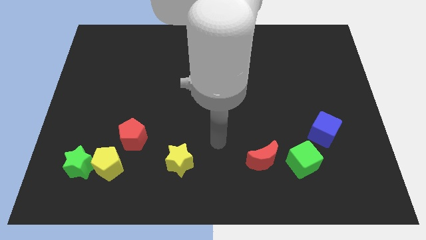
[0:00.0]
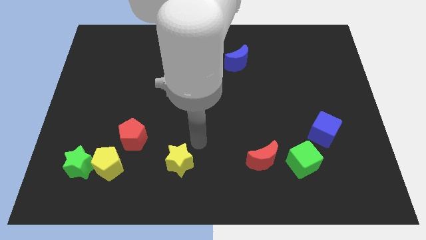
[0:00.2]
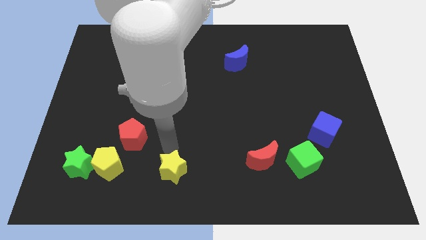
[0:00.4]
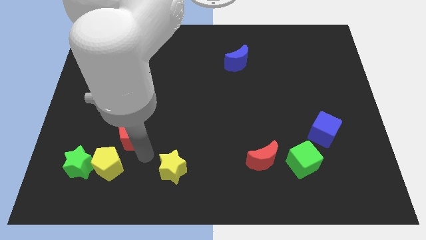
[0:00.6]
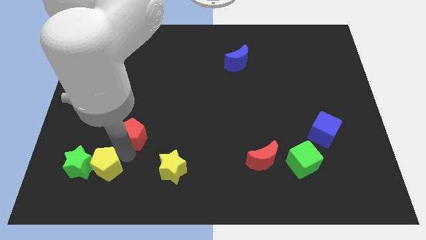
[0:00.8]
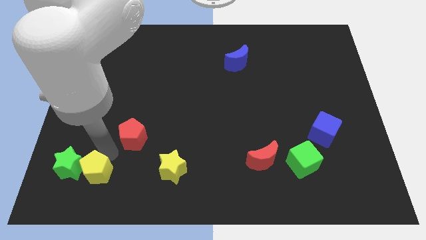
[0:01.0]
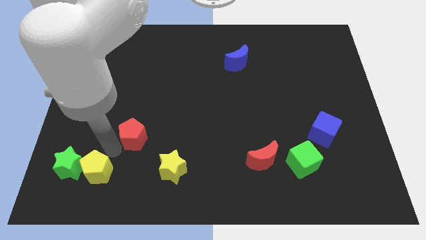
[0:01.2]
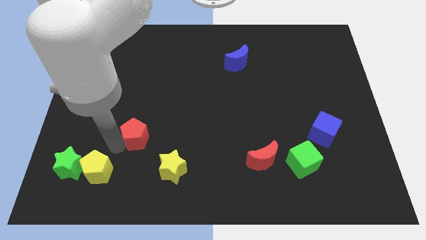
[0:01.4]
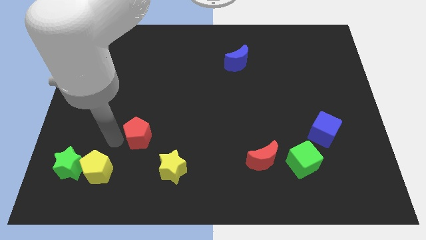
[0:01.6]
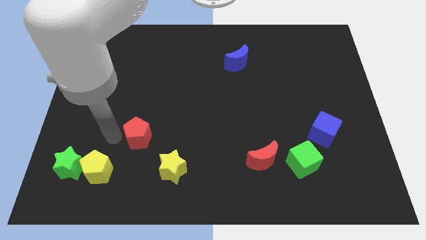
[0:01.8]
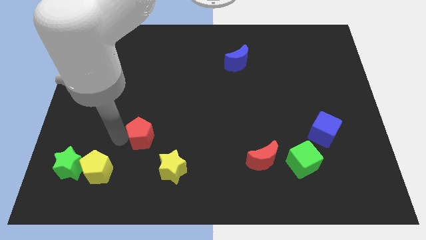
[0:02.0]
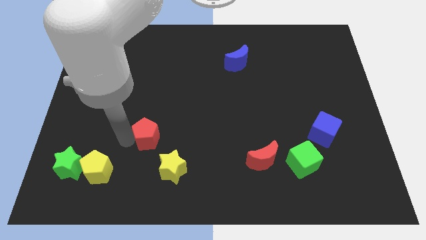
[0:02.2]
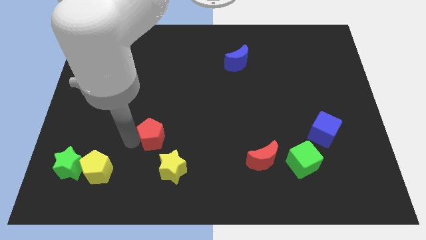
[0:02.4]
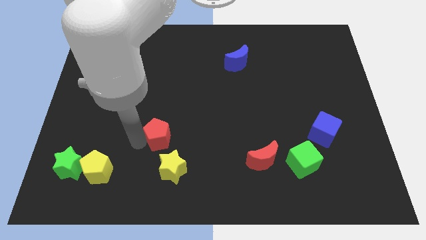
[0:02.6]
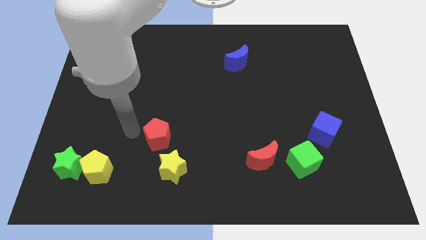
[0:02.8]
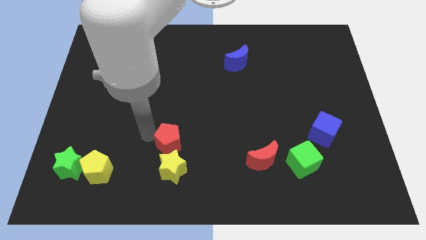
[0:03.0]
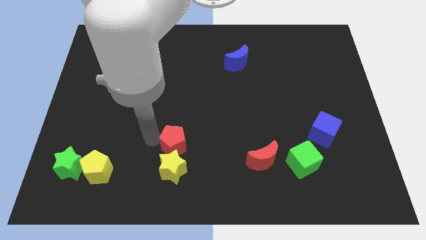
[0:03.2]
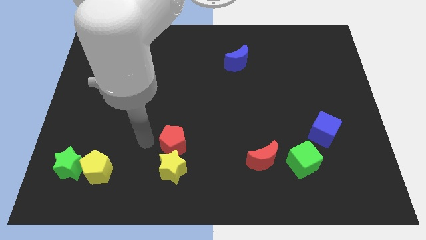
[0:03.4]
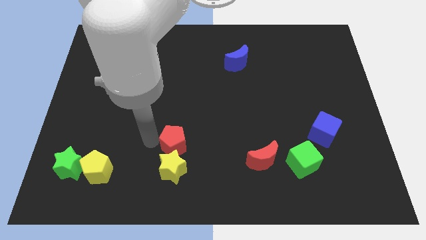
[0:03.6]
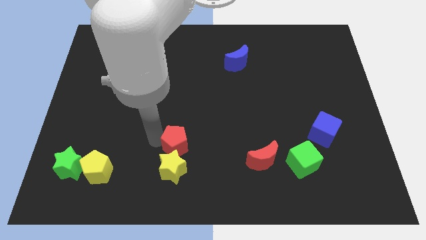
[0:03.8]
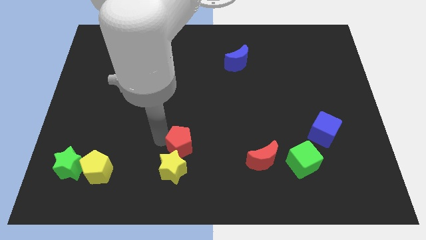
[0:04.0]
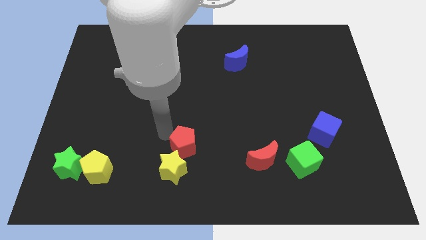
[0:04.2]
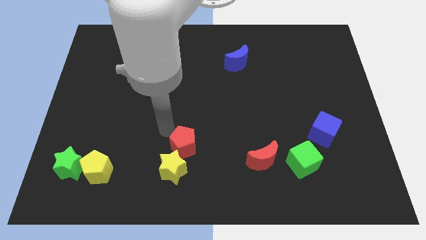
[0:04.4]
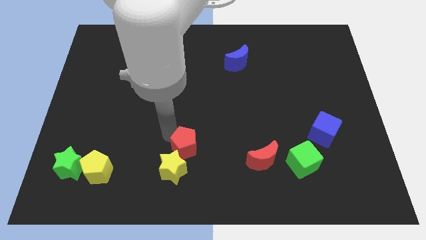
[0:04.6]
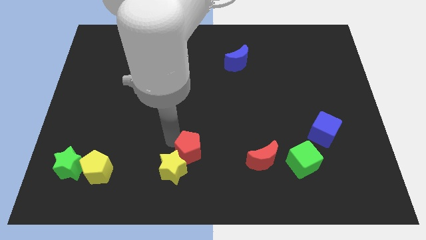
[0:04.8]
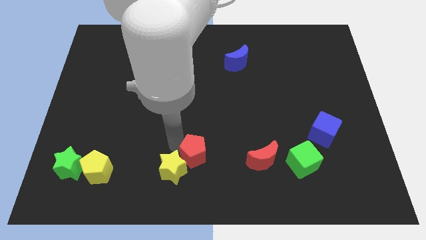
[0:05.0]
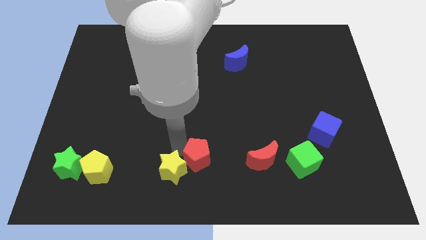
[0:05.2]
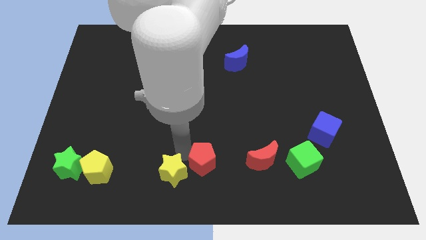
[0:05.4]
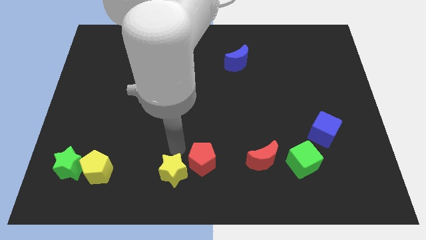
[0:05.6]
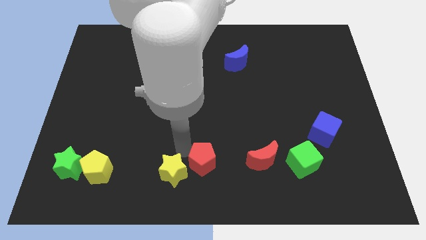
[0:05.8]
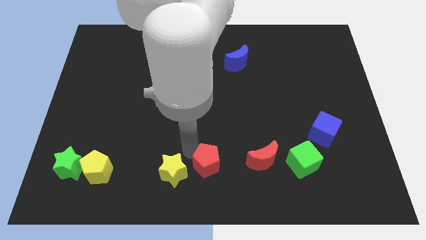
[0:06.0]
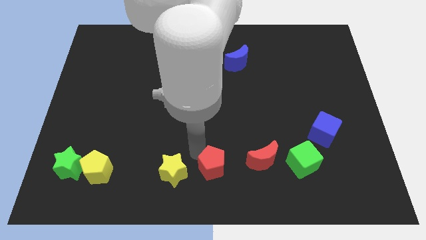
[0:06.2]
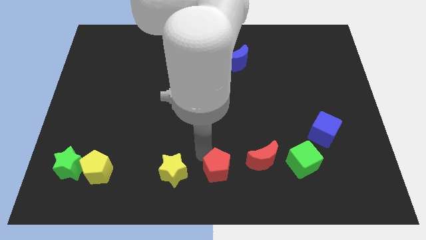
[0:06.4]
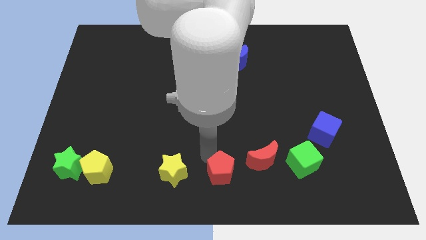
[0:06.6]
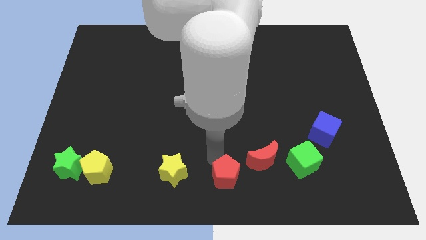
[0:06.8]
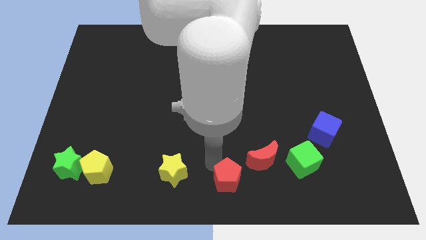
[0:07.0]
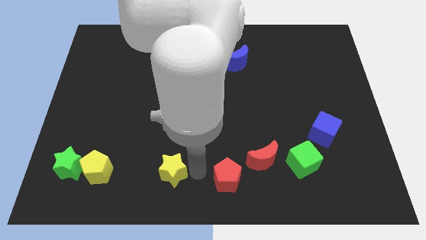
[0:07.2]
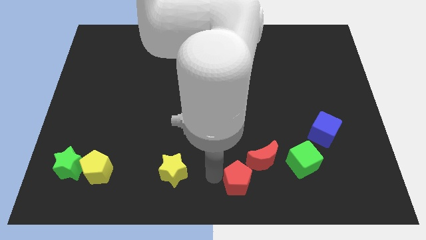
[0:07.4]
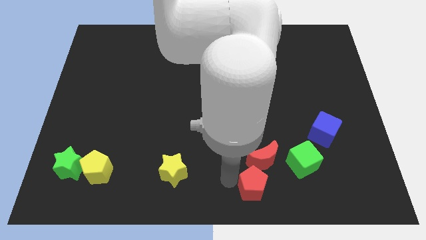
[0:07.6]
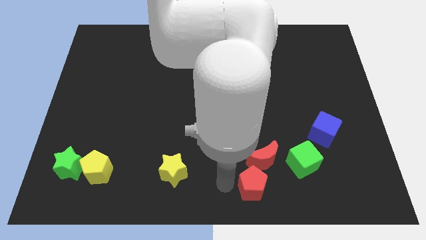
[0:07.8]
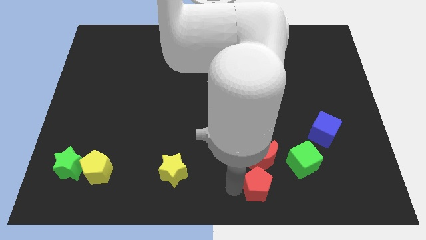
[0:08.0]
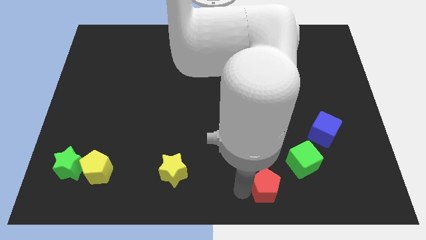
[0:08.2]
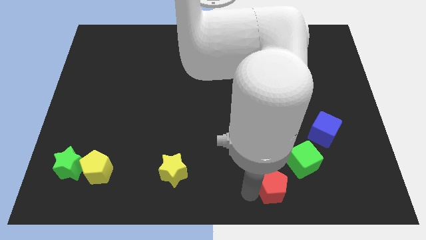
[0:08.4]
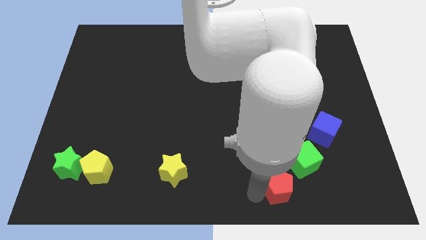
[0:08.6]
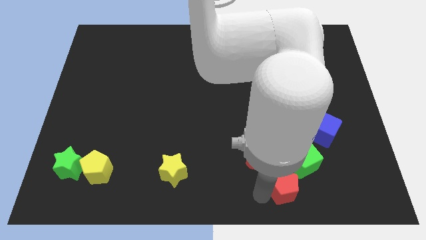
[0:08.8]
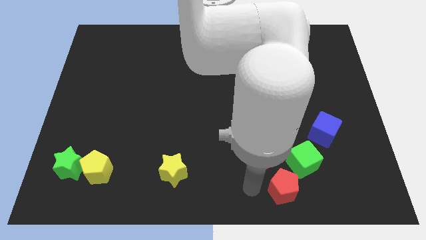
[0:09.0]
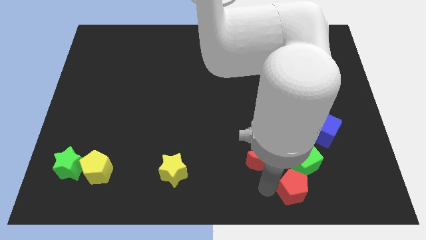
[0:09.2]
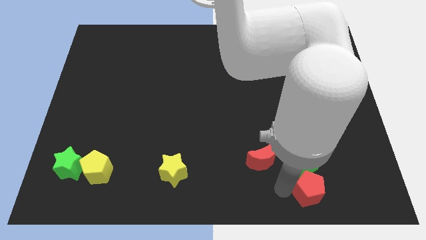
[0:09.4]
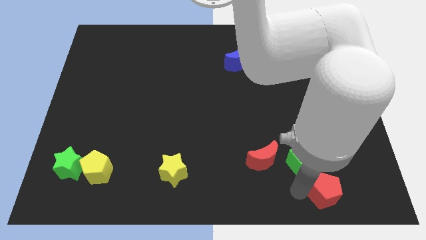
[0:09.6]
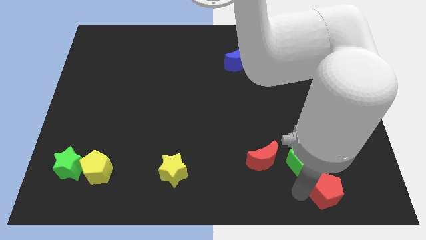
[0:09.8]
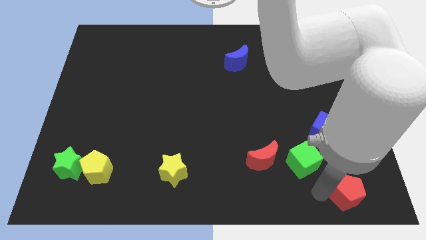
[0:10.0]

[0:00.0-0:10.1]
slide the red pentagon to the bottom right corner

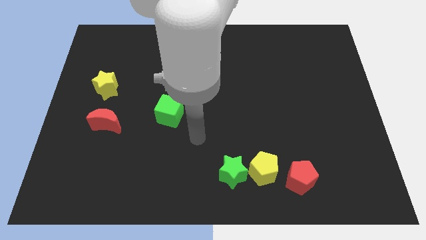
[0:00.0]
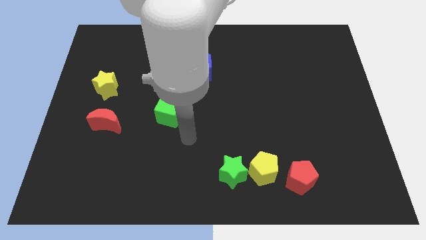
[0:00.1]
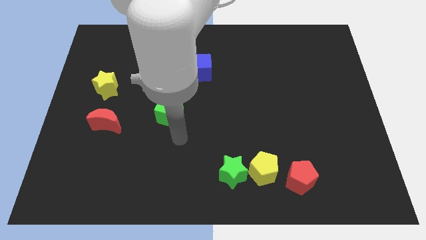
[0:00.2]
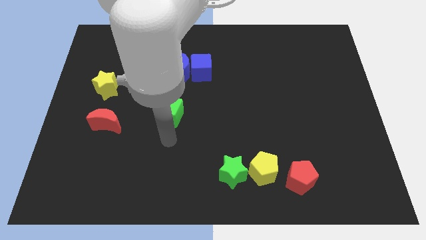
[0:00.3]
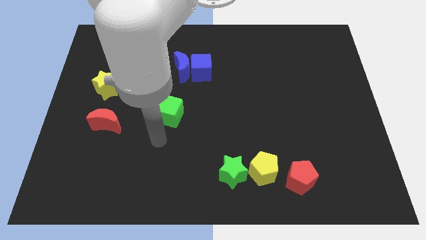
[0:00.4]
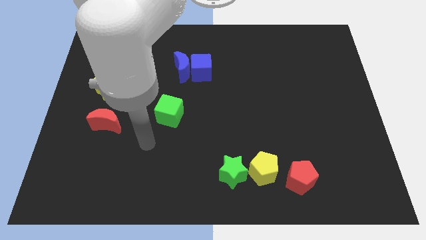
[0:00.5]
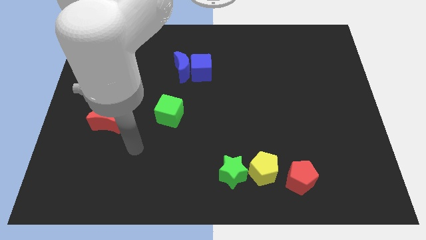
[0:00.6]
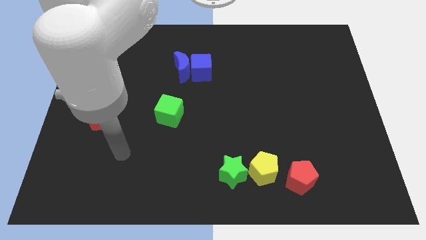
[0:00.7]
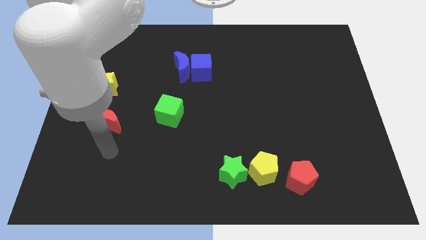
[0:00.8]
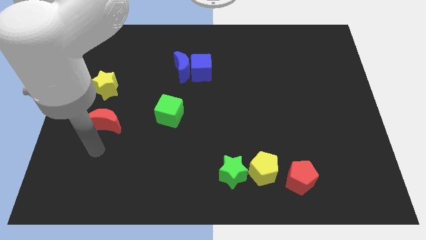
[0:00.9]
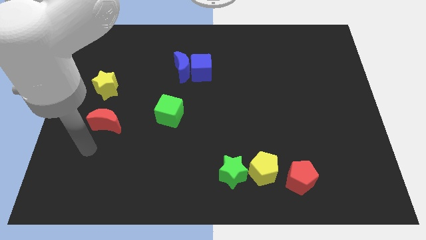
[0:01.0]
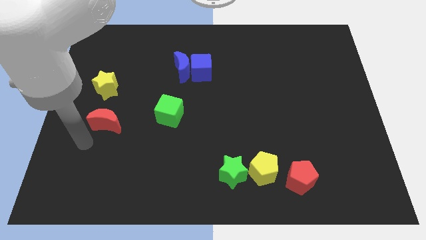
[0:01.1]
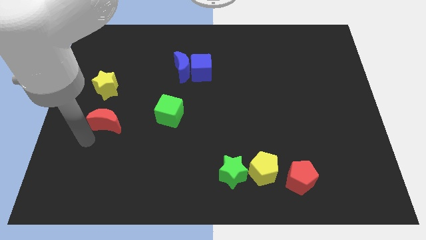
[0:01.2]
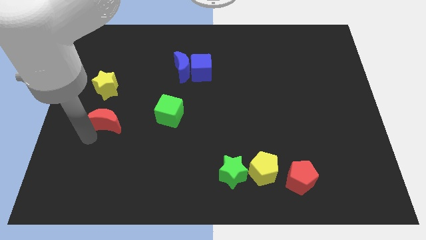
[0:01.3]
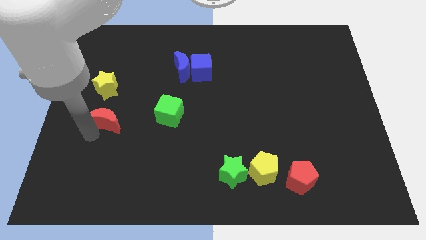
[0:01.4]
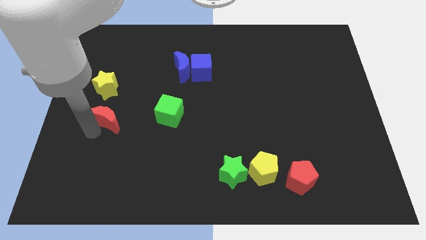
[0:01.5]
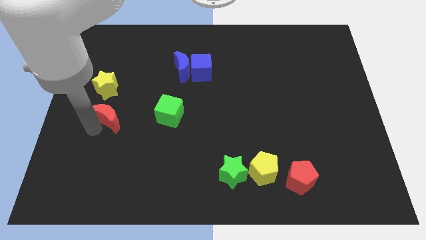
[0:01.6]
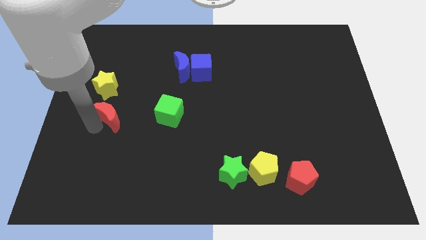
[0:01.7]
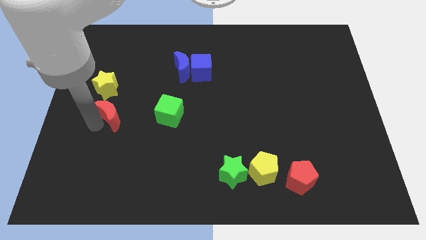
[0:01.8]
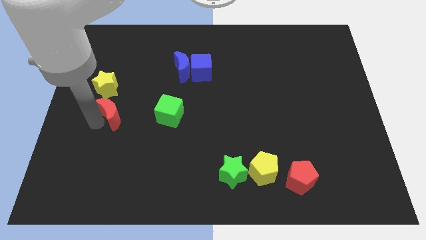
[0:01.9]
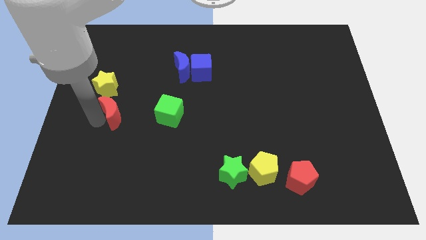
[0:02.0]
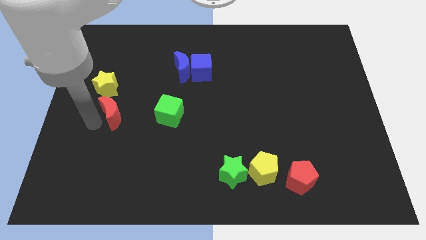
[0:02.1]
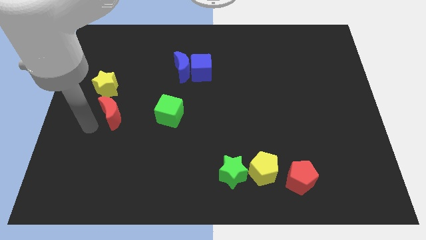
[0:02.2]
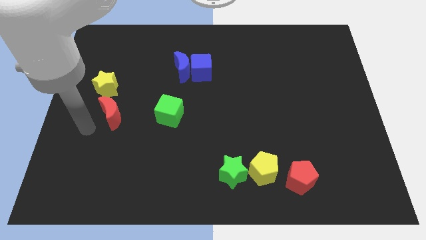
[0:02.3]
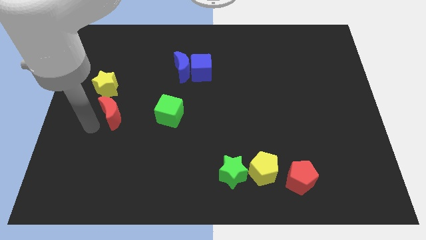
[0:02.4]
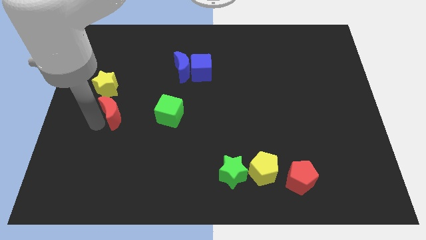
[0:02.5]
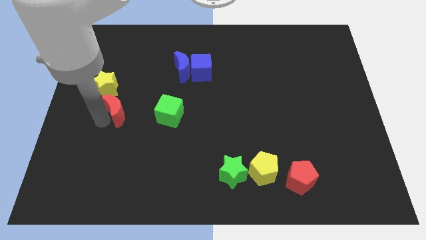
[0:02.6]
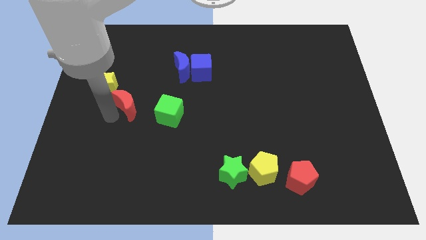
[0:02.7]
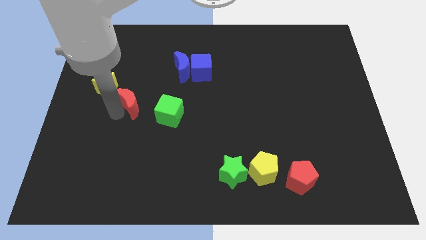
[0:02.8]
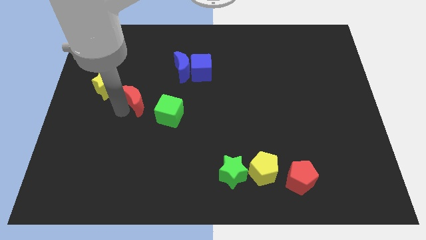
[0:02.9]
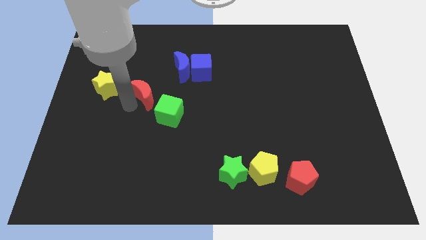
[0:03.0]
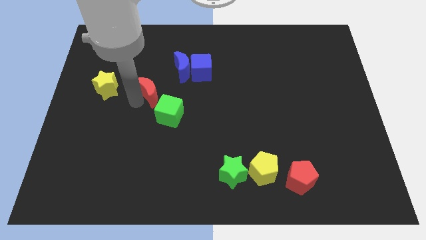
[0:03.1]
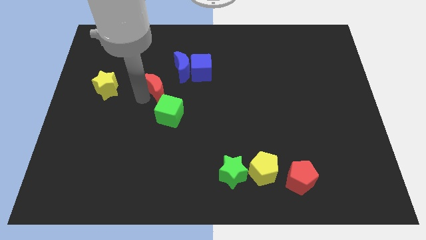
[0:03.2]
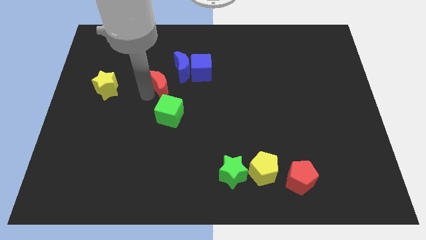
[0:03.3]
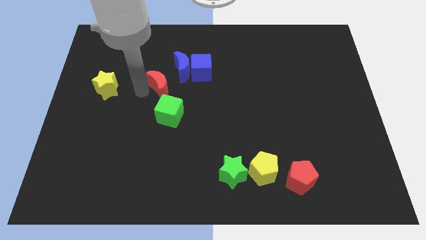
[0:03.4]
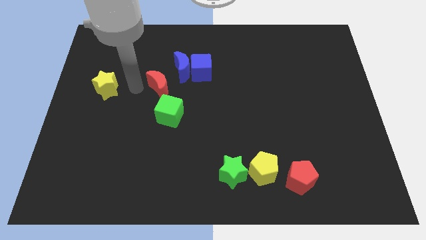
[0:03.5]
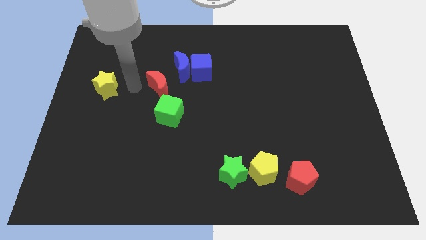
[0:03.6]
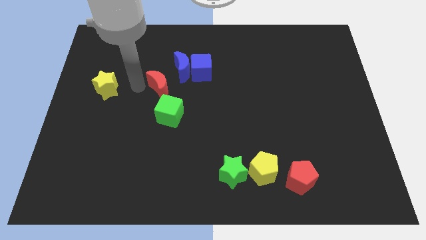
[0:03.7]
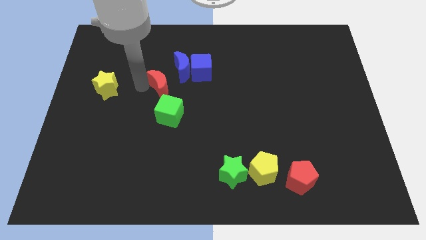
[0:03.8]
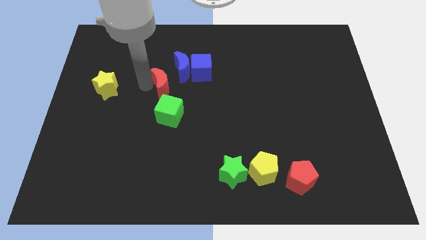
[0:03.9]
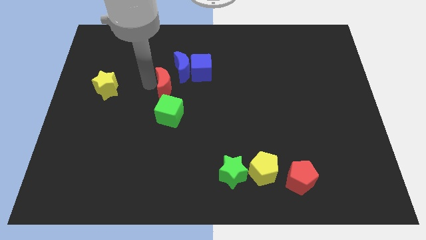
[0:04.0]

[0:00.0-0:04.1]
slide the red moon to the middle of the board
